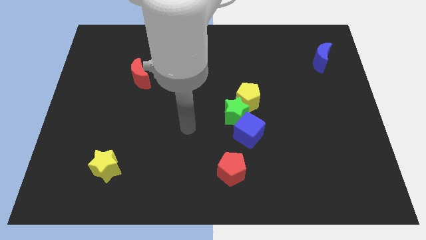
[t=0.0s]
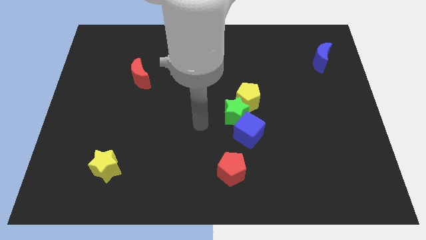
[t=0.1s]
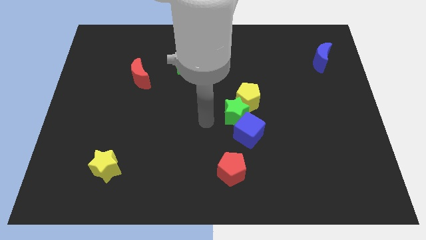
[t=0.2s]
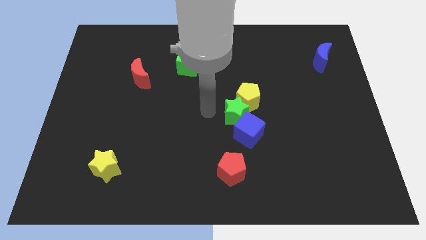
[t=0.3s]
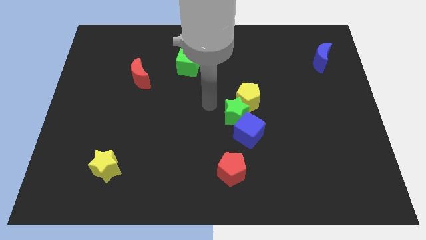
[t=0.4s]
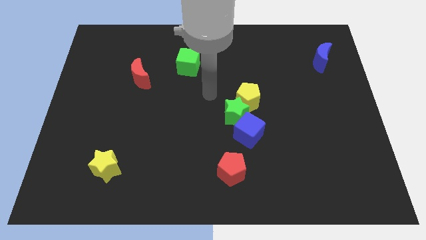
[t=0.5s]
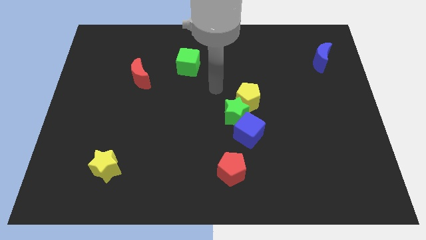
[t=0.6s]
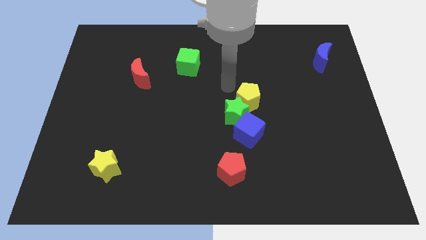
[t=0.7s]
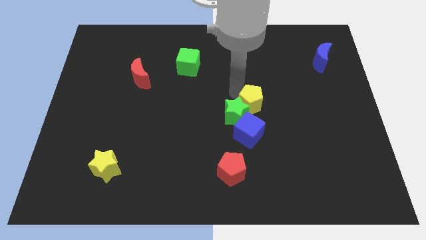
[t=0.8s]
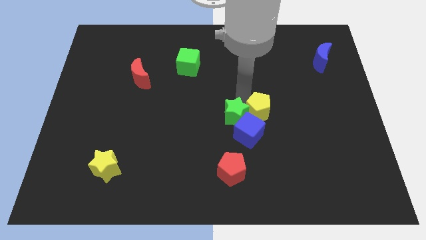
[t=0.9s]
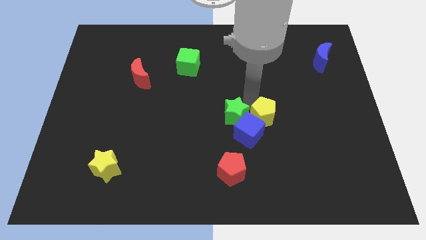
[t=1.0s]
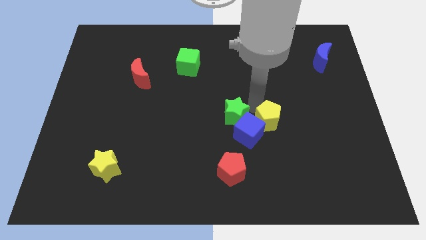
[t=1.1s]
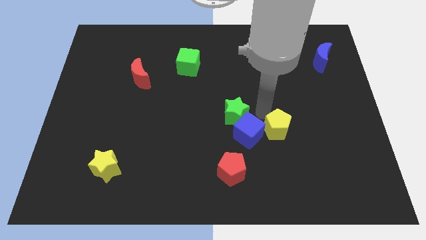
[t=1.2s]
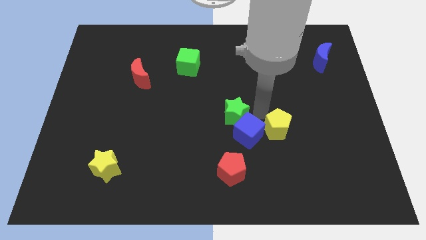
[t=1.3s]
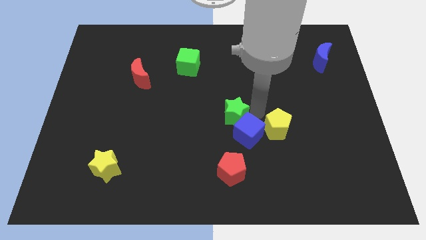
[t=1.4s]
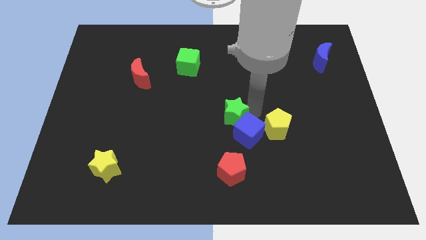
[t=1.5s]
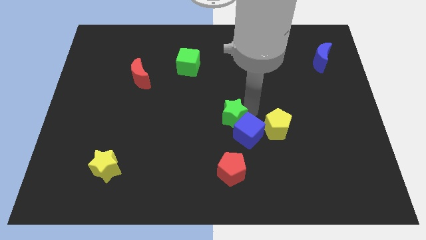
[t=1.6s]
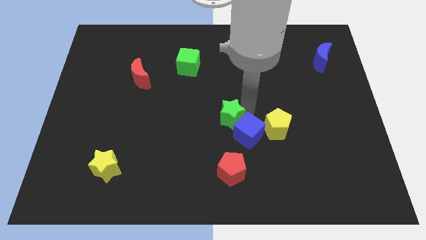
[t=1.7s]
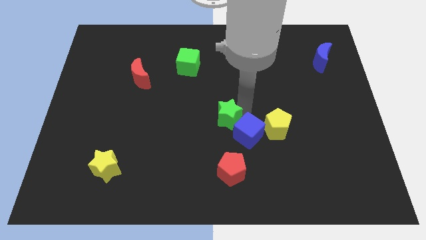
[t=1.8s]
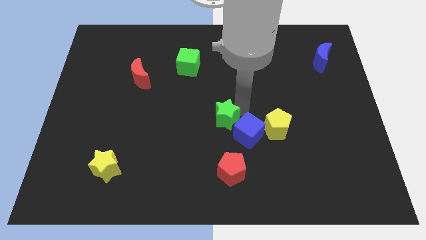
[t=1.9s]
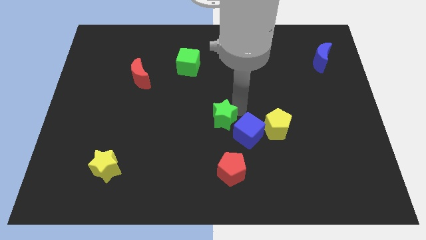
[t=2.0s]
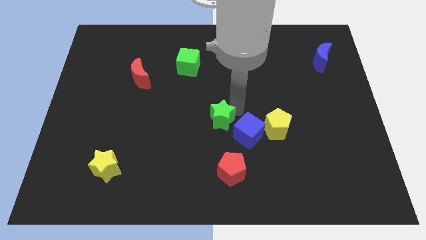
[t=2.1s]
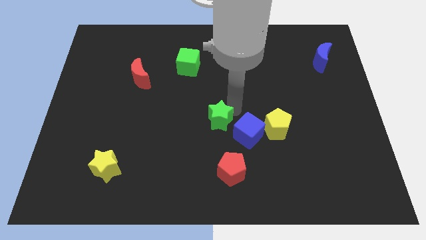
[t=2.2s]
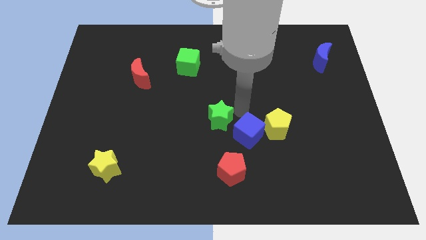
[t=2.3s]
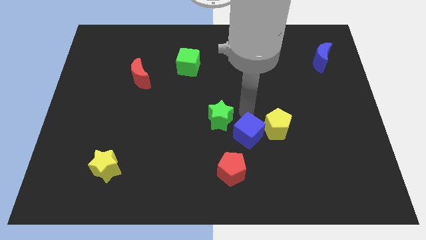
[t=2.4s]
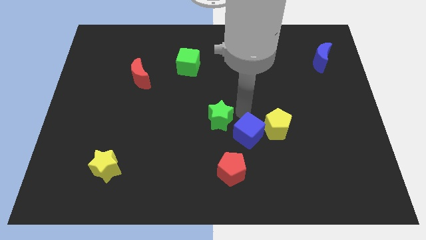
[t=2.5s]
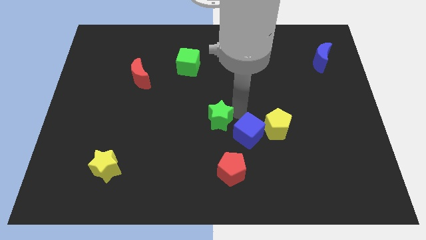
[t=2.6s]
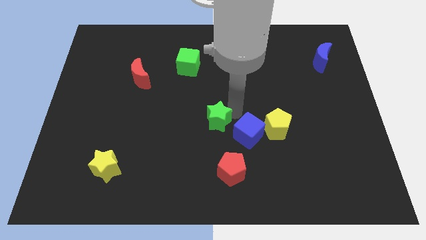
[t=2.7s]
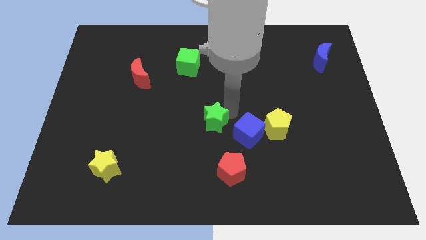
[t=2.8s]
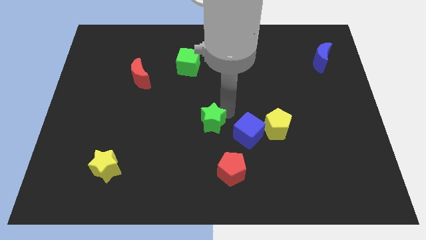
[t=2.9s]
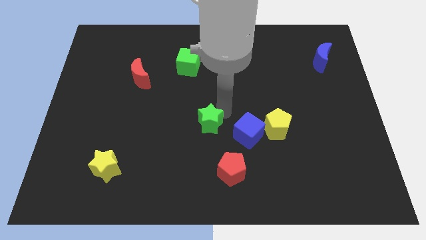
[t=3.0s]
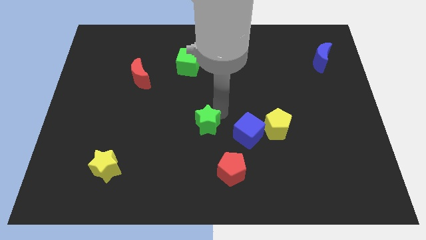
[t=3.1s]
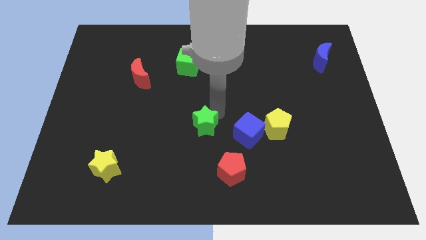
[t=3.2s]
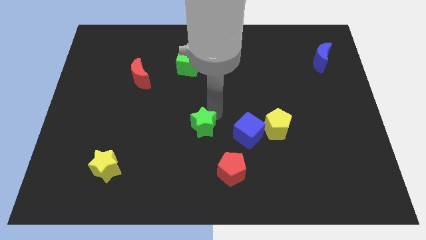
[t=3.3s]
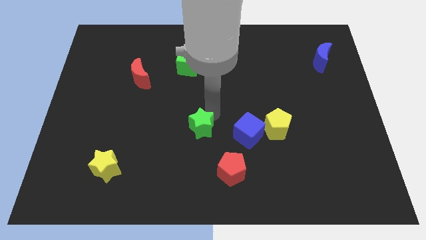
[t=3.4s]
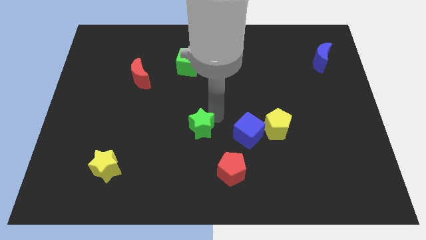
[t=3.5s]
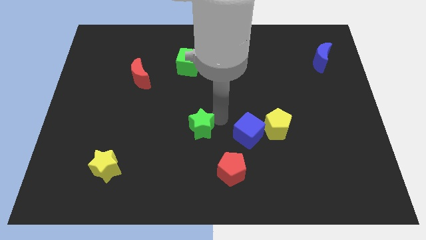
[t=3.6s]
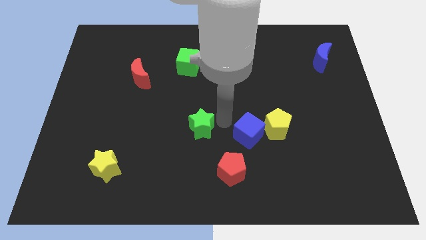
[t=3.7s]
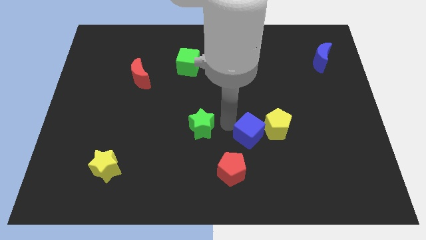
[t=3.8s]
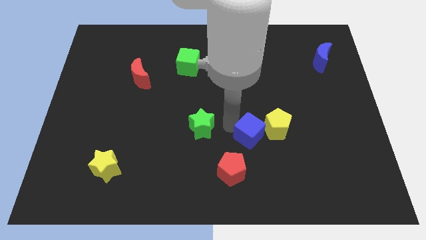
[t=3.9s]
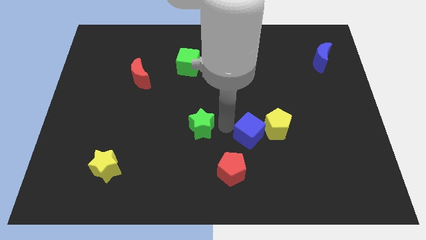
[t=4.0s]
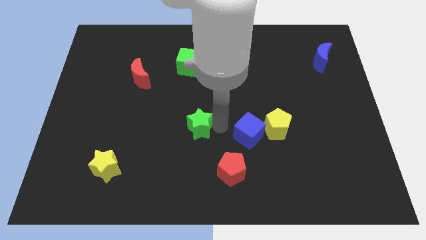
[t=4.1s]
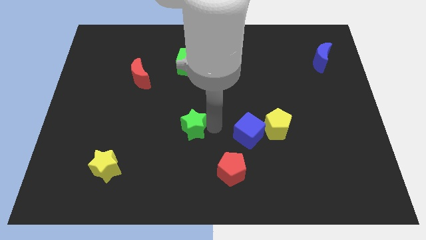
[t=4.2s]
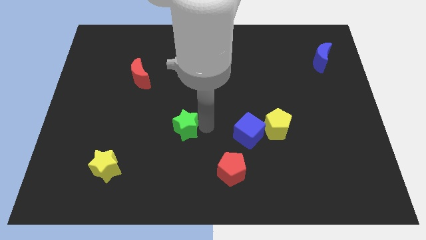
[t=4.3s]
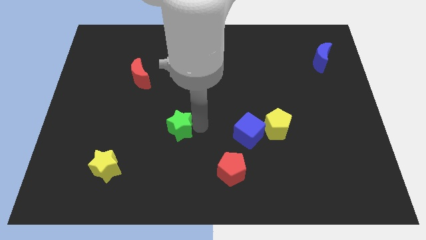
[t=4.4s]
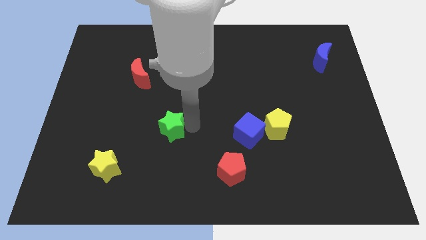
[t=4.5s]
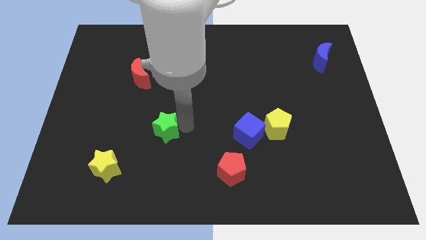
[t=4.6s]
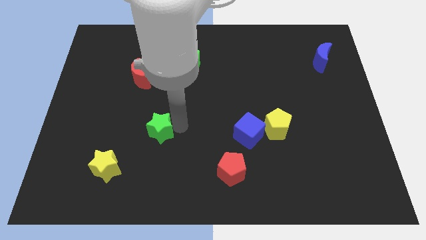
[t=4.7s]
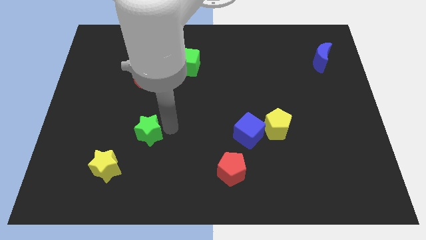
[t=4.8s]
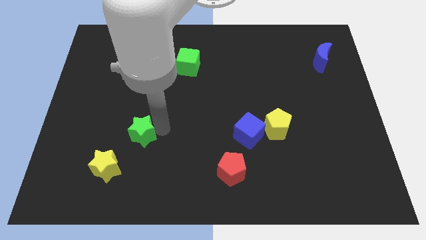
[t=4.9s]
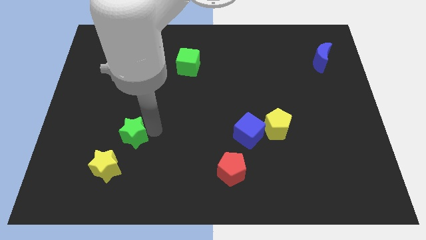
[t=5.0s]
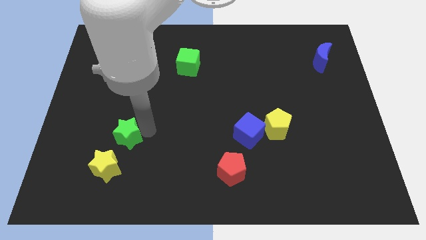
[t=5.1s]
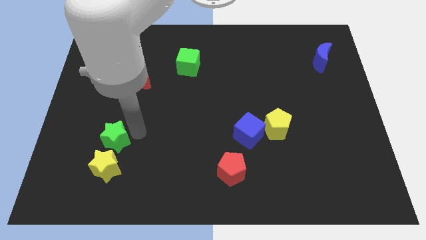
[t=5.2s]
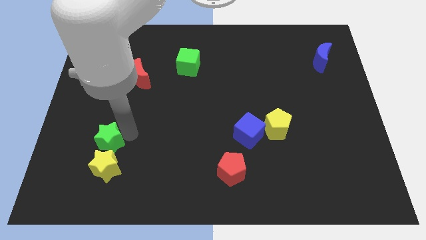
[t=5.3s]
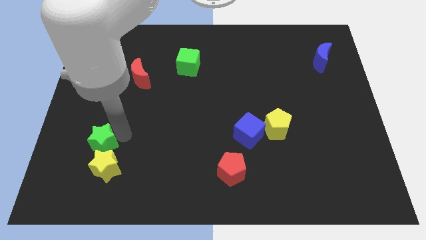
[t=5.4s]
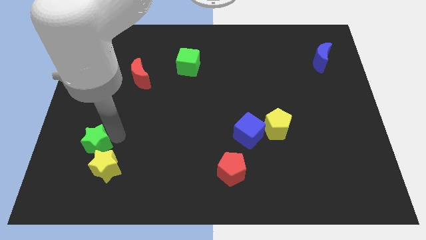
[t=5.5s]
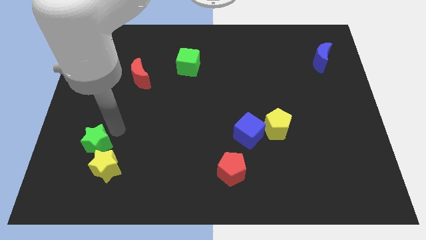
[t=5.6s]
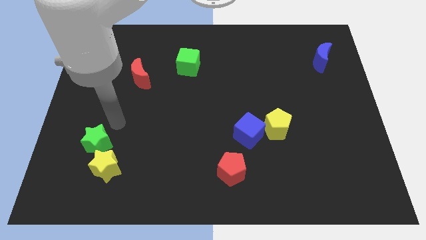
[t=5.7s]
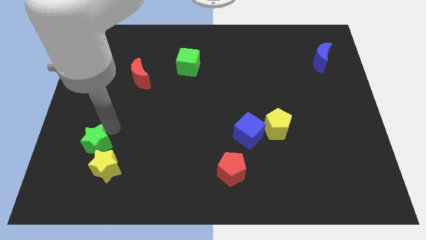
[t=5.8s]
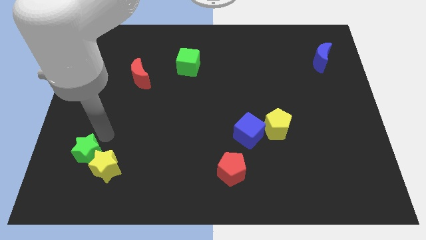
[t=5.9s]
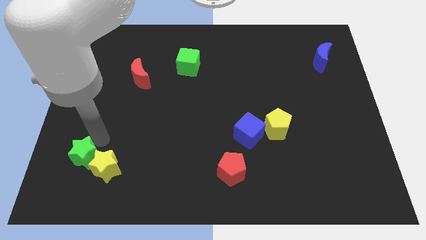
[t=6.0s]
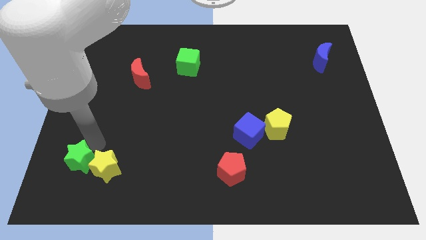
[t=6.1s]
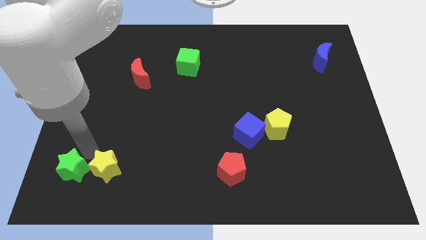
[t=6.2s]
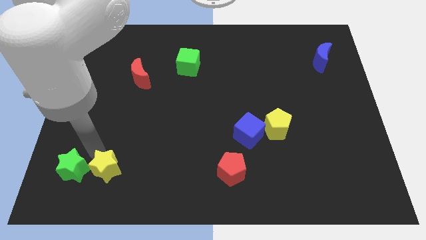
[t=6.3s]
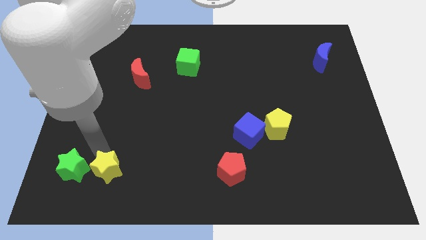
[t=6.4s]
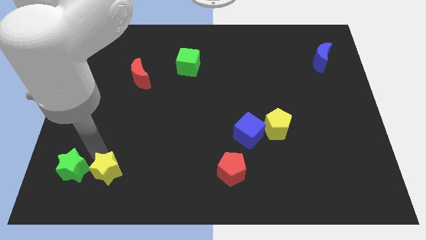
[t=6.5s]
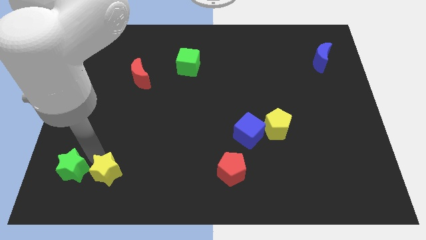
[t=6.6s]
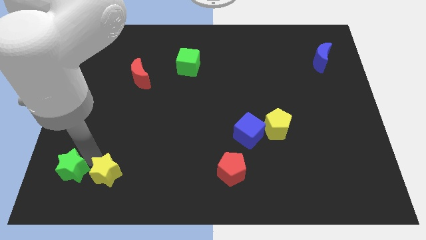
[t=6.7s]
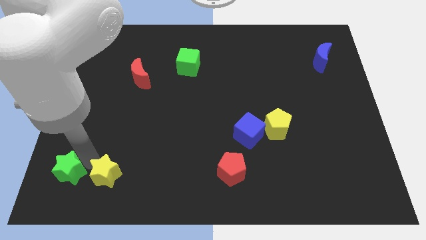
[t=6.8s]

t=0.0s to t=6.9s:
put the green star to the lower left corner
